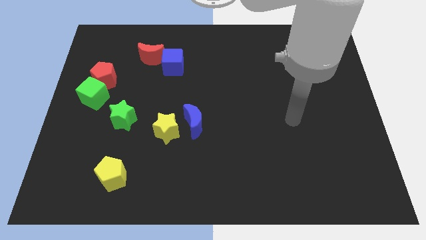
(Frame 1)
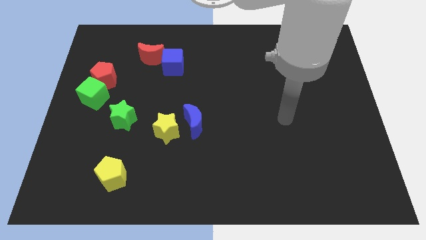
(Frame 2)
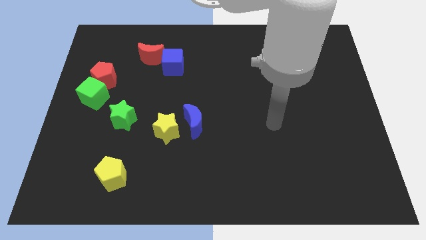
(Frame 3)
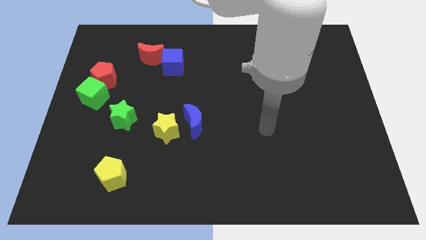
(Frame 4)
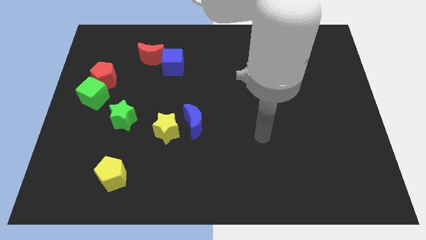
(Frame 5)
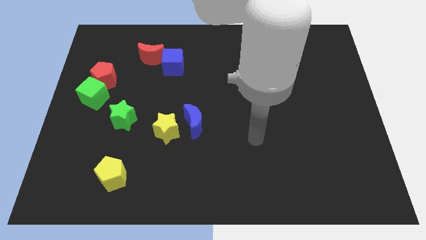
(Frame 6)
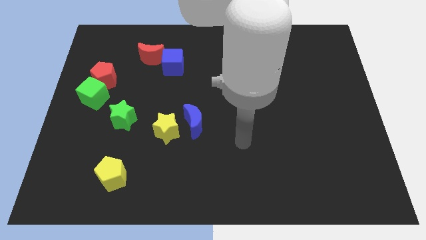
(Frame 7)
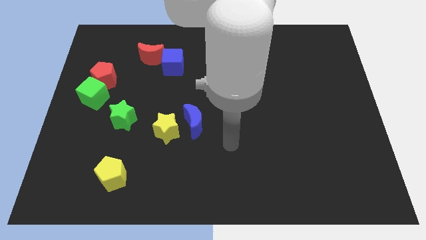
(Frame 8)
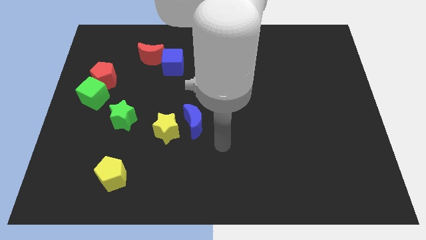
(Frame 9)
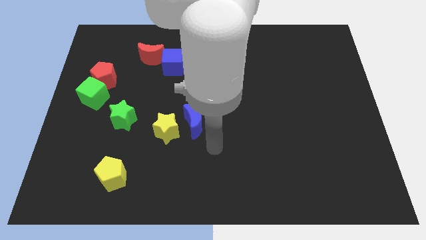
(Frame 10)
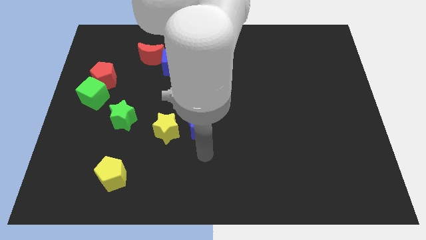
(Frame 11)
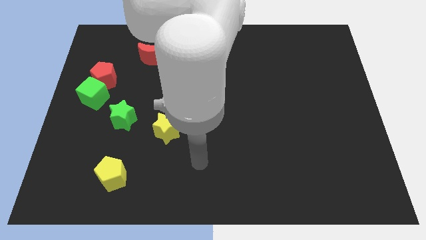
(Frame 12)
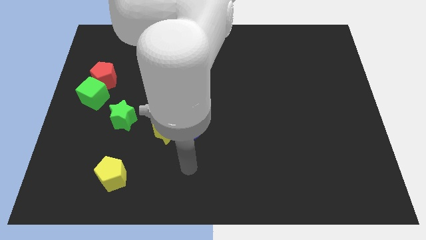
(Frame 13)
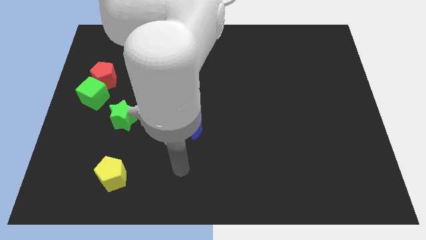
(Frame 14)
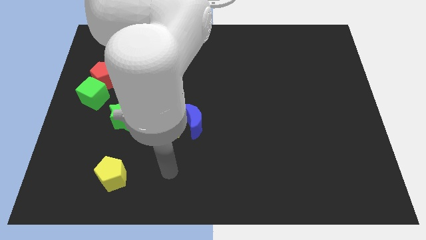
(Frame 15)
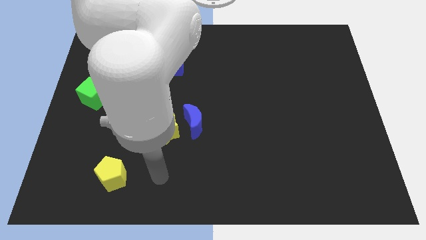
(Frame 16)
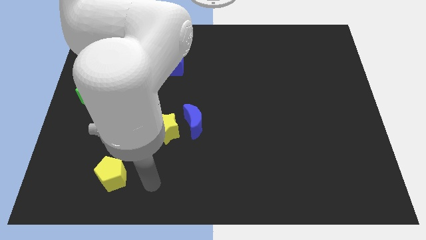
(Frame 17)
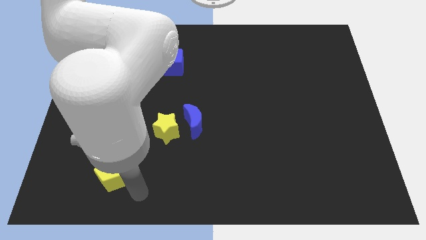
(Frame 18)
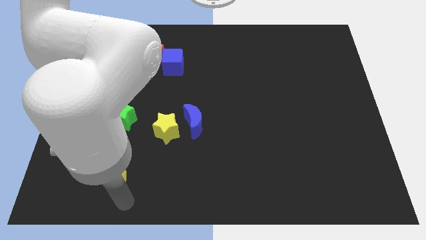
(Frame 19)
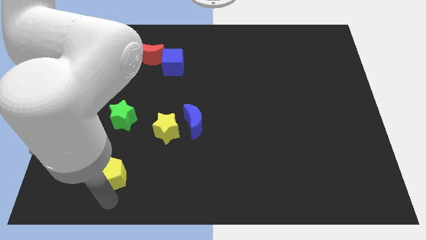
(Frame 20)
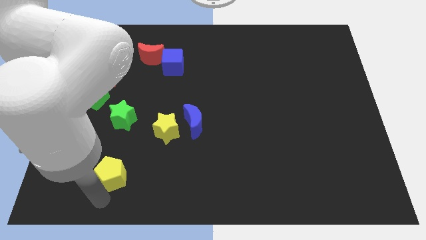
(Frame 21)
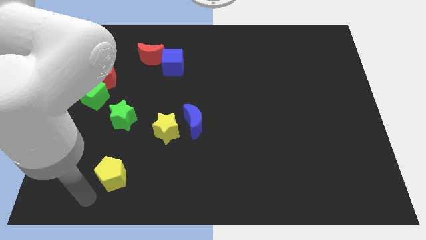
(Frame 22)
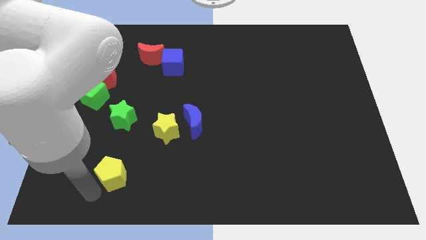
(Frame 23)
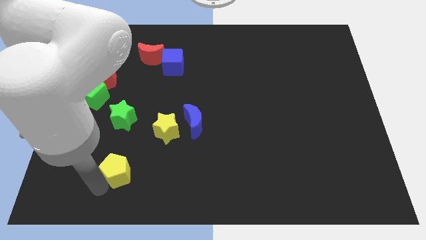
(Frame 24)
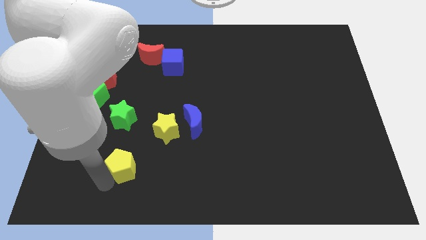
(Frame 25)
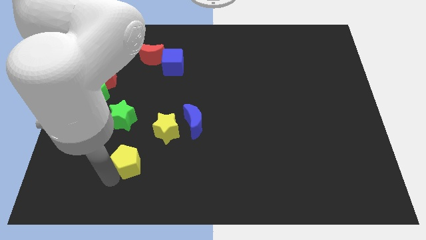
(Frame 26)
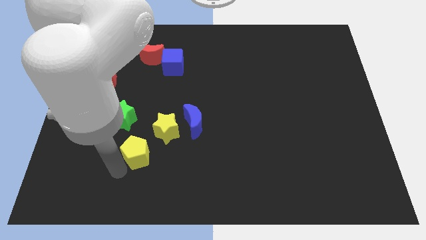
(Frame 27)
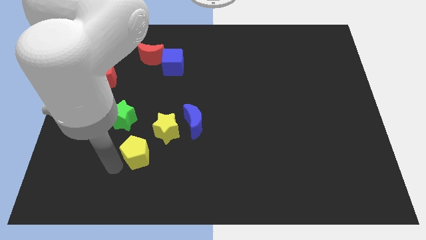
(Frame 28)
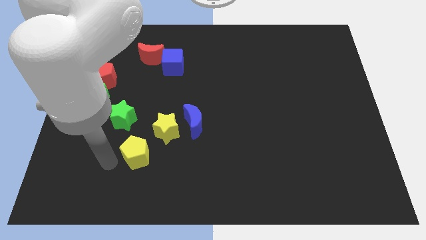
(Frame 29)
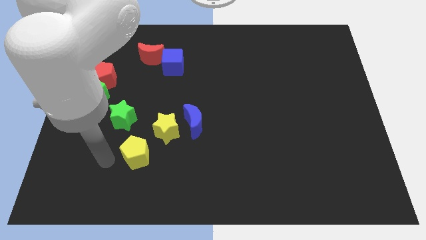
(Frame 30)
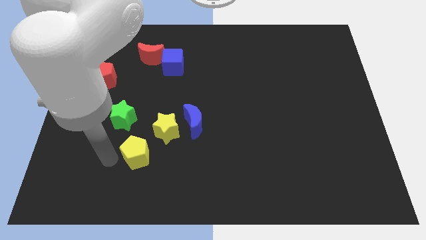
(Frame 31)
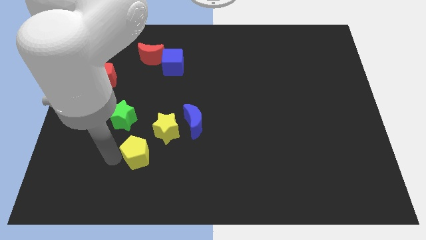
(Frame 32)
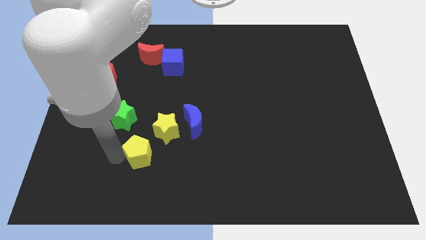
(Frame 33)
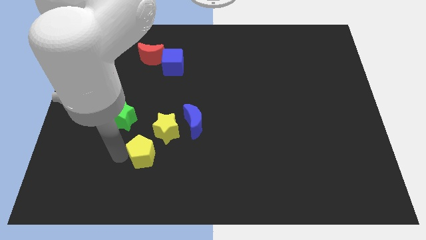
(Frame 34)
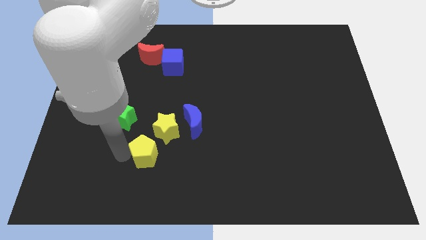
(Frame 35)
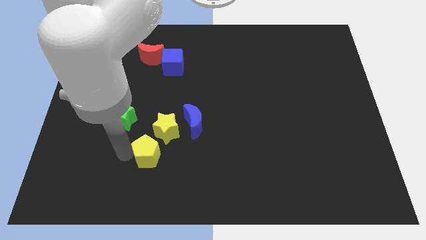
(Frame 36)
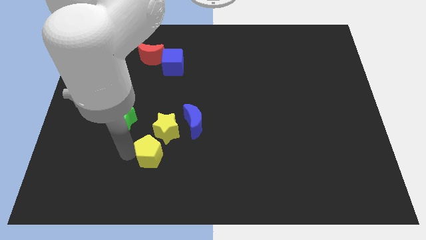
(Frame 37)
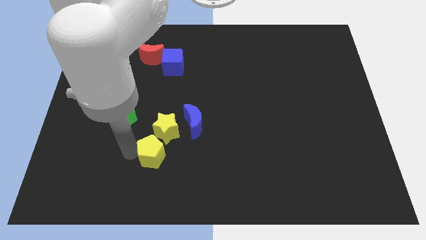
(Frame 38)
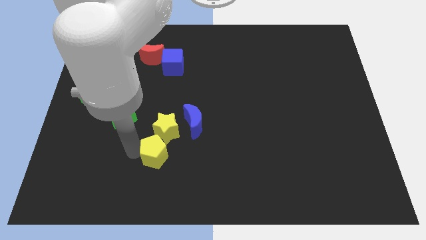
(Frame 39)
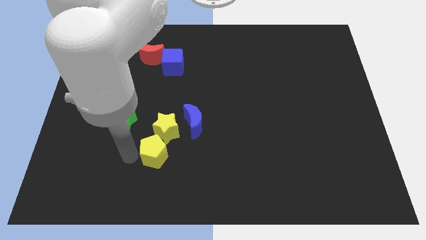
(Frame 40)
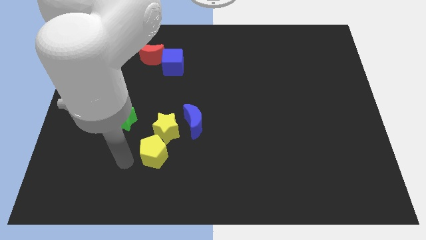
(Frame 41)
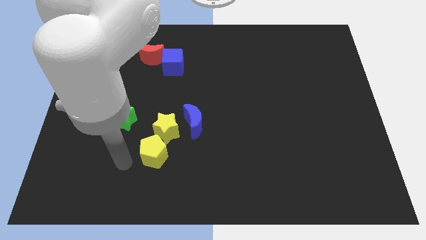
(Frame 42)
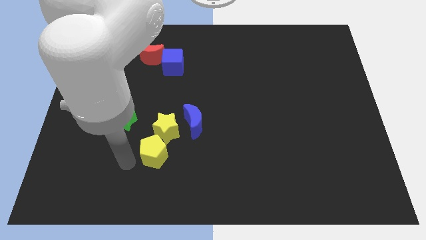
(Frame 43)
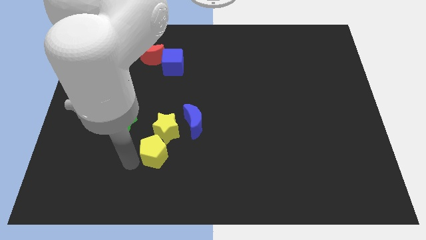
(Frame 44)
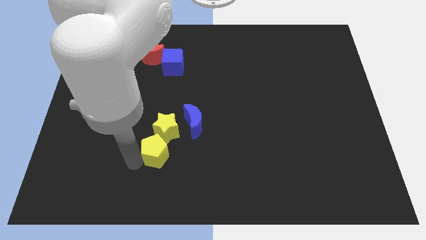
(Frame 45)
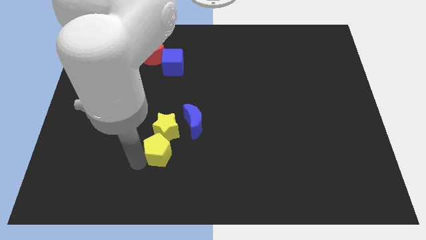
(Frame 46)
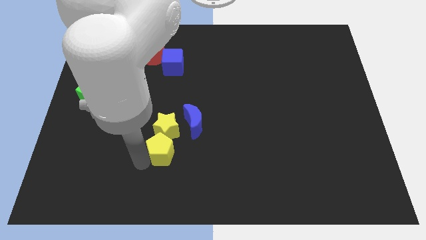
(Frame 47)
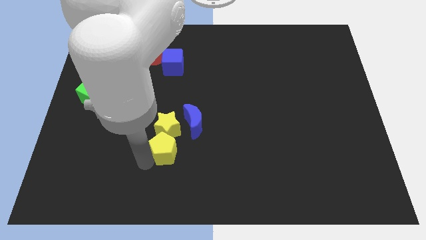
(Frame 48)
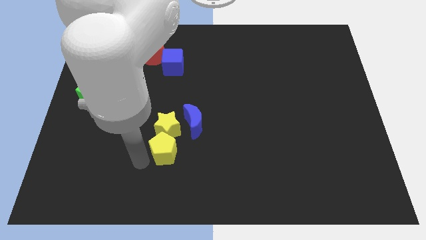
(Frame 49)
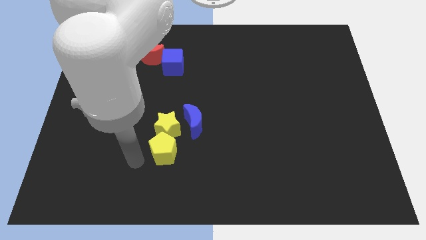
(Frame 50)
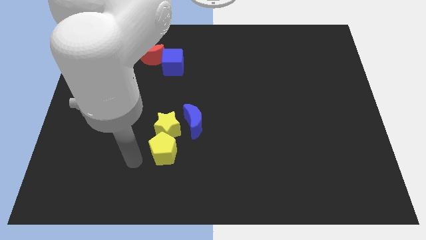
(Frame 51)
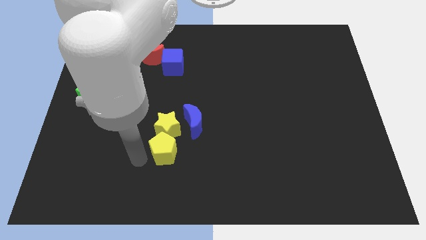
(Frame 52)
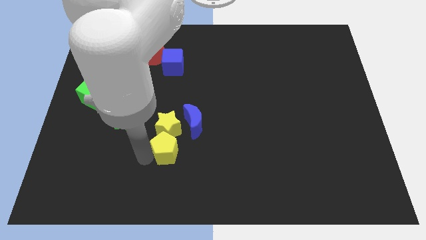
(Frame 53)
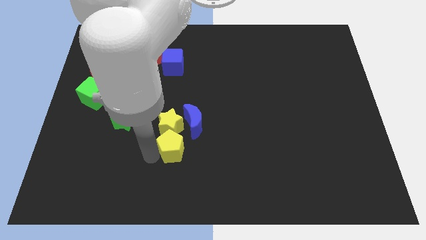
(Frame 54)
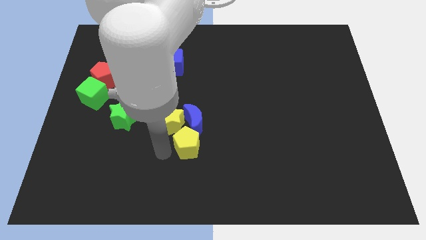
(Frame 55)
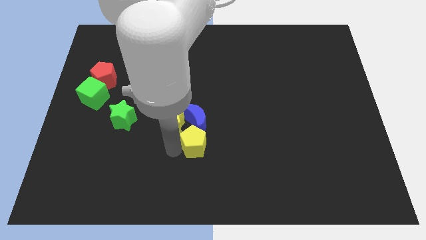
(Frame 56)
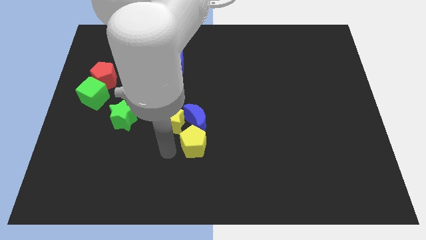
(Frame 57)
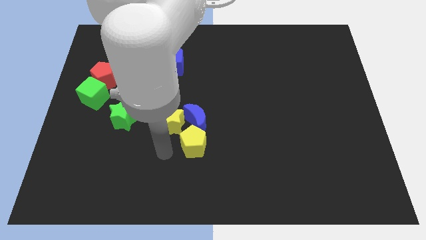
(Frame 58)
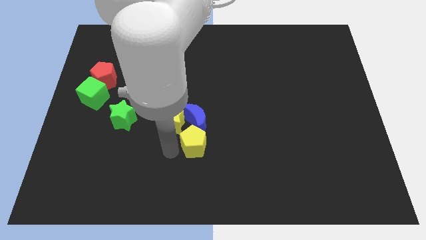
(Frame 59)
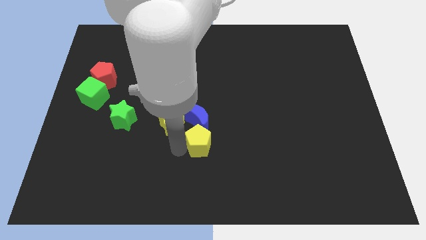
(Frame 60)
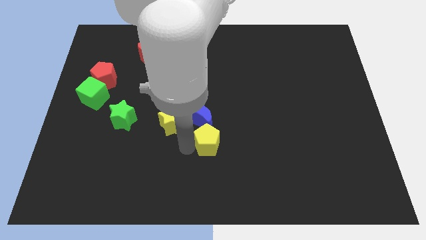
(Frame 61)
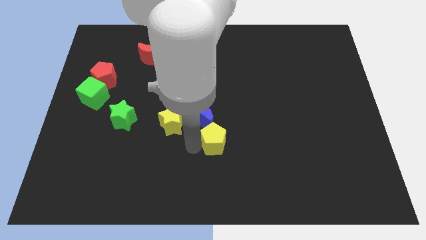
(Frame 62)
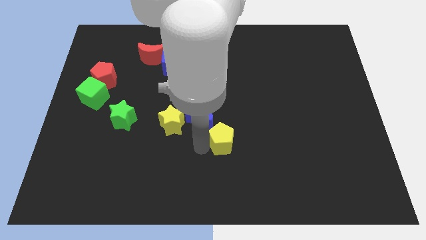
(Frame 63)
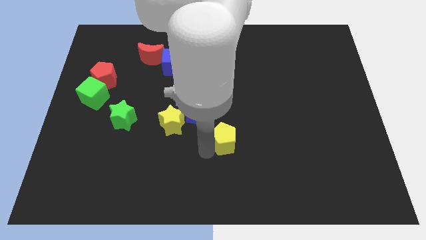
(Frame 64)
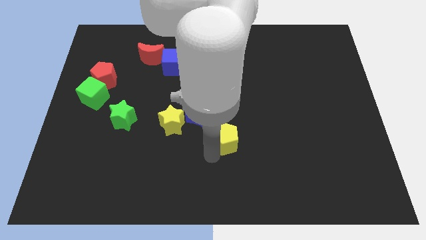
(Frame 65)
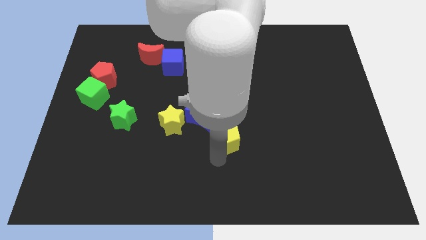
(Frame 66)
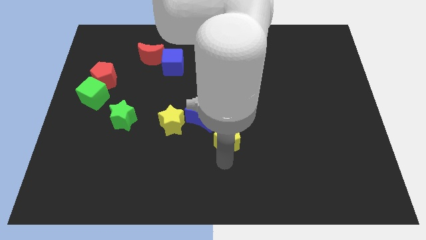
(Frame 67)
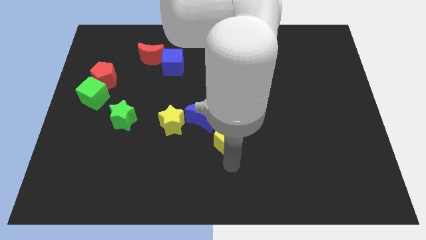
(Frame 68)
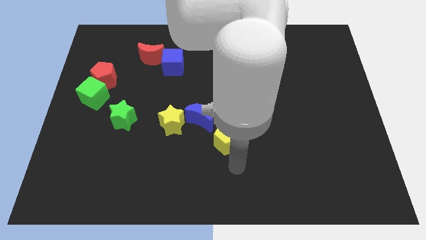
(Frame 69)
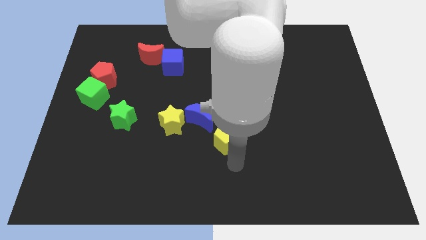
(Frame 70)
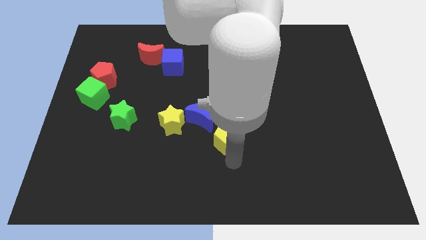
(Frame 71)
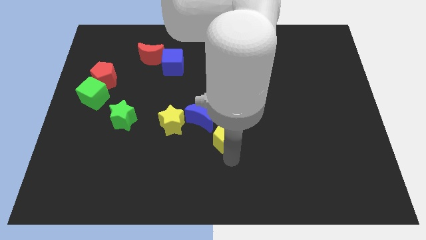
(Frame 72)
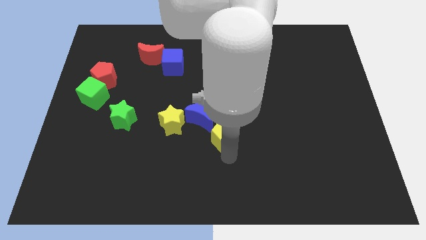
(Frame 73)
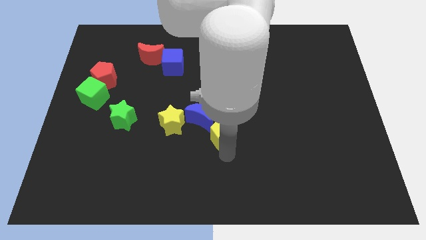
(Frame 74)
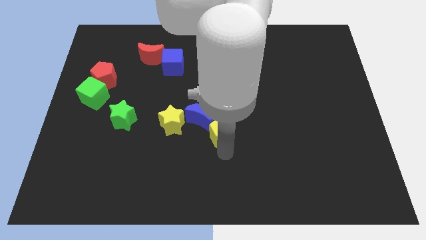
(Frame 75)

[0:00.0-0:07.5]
push the yellow pentagon upwards and right diagonally

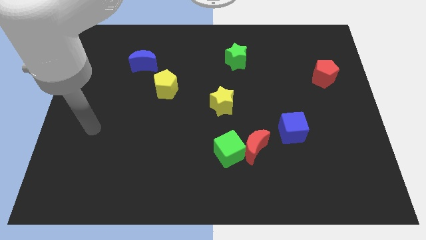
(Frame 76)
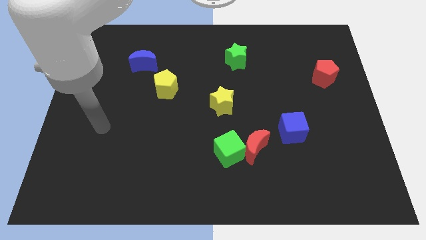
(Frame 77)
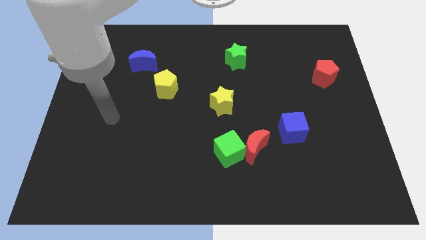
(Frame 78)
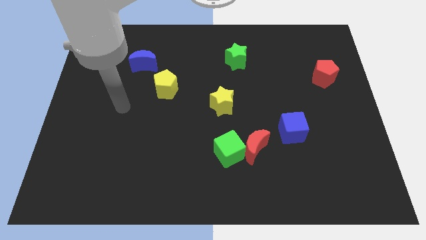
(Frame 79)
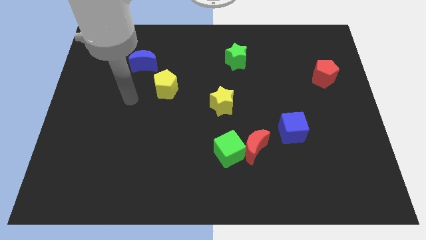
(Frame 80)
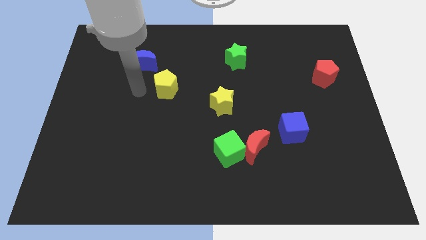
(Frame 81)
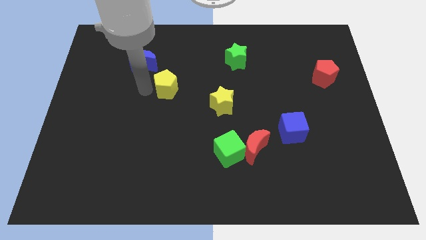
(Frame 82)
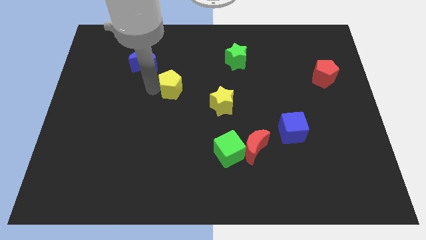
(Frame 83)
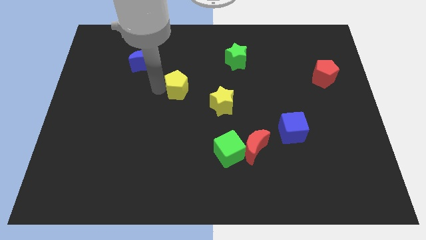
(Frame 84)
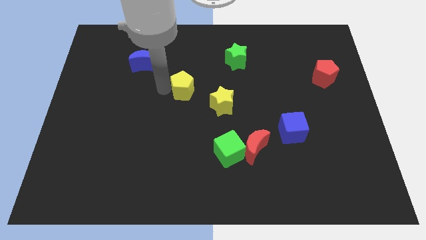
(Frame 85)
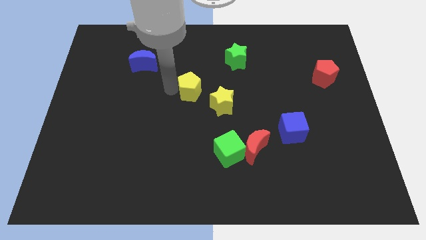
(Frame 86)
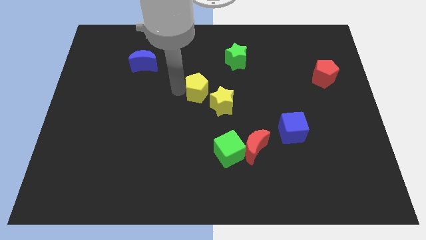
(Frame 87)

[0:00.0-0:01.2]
push the yellow pentagon a little bit right
